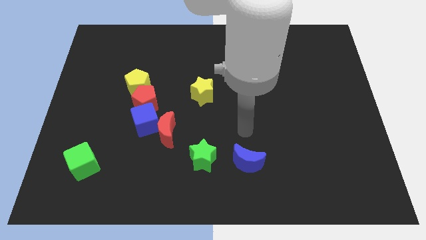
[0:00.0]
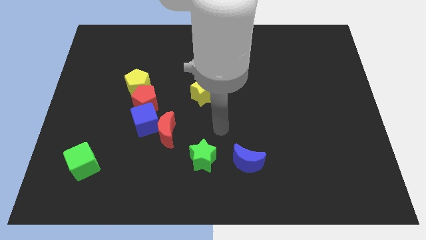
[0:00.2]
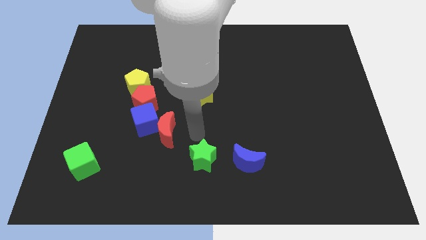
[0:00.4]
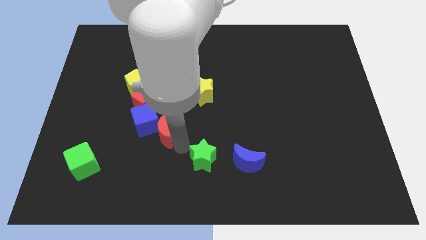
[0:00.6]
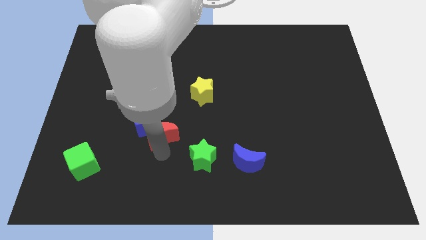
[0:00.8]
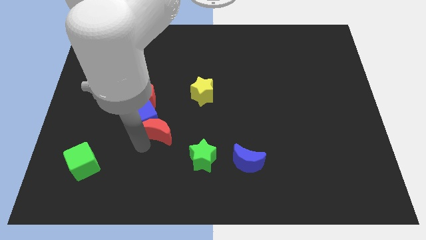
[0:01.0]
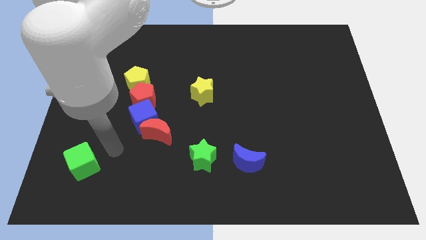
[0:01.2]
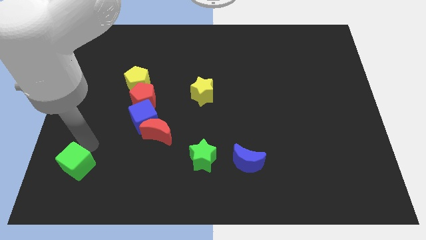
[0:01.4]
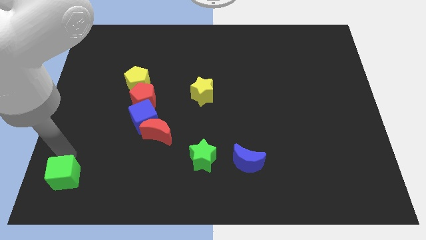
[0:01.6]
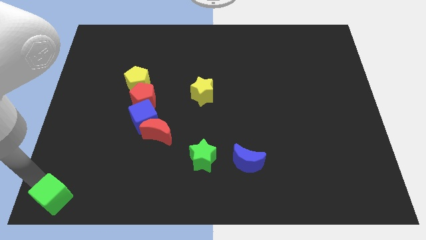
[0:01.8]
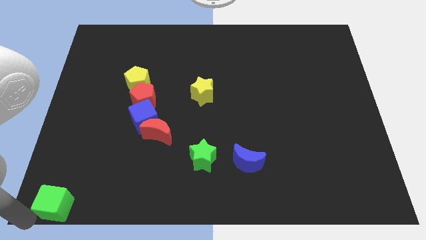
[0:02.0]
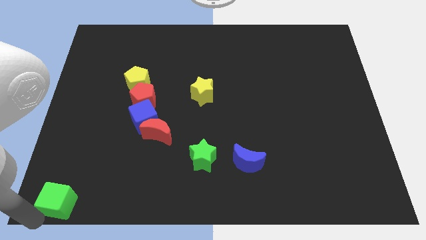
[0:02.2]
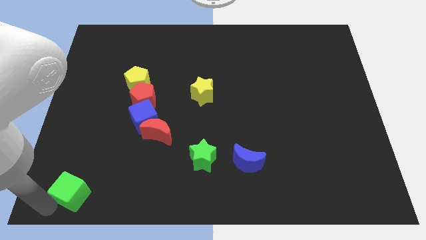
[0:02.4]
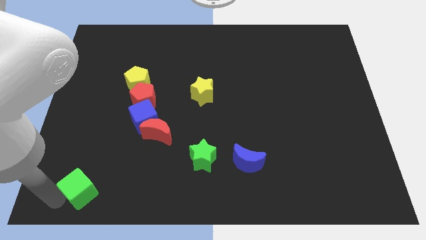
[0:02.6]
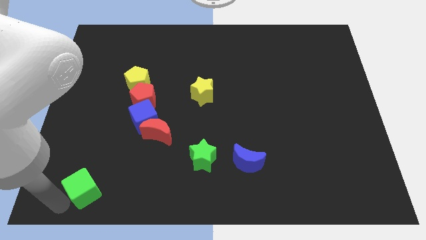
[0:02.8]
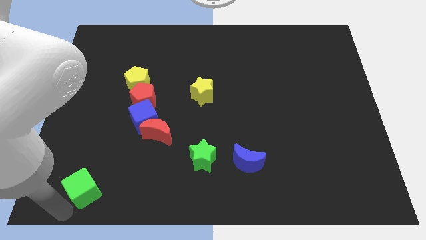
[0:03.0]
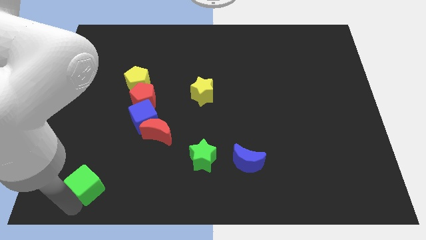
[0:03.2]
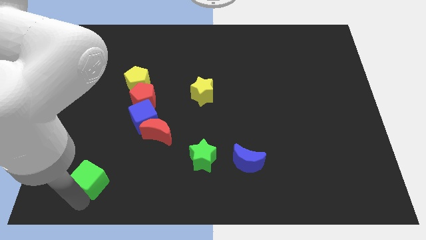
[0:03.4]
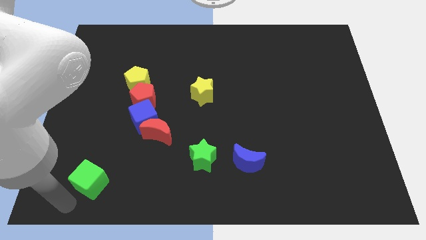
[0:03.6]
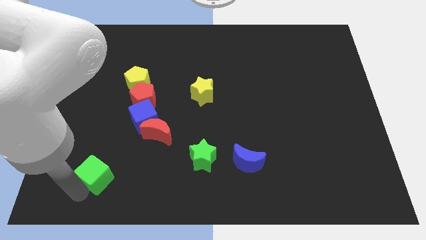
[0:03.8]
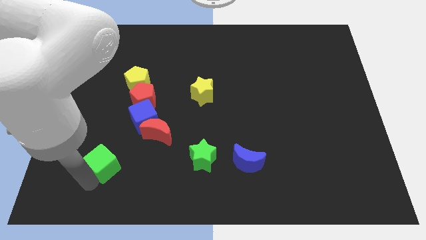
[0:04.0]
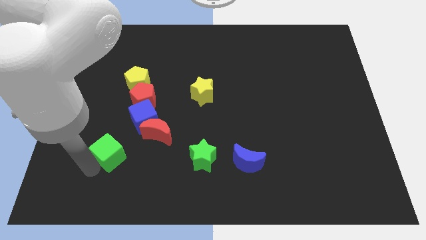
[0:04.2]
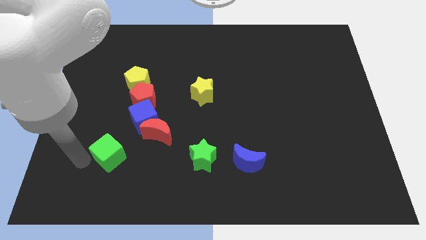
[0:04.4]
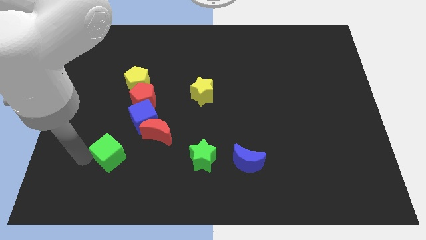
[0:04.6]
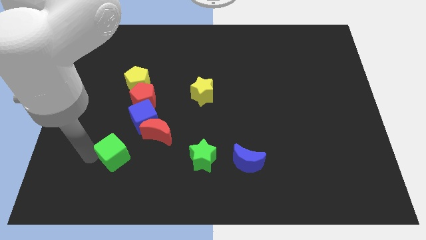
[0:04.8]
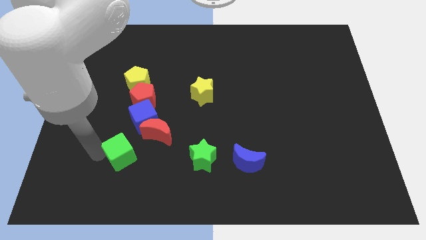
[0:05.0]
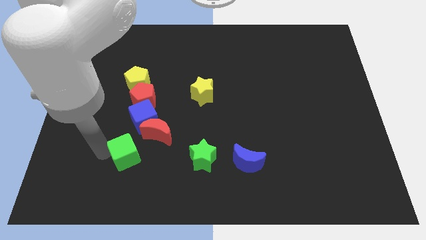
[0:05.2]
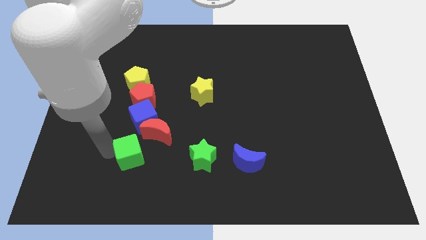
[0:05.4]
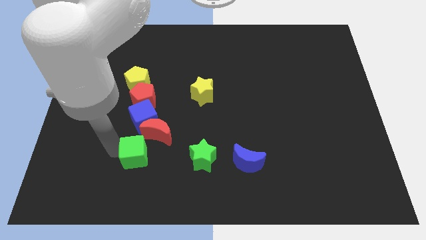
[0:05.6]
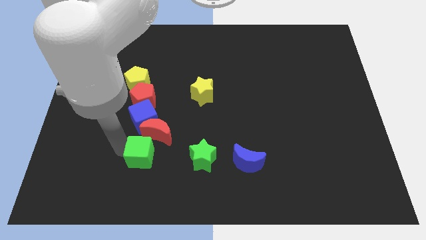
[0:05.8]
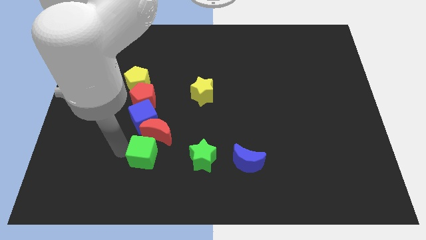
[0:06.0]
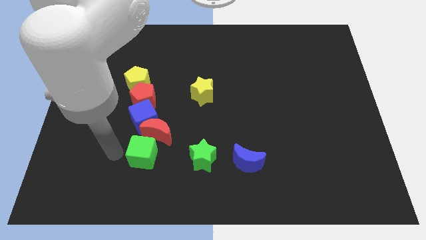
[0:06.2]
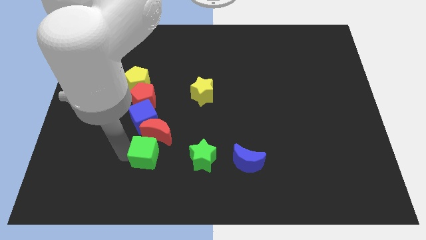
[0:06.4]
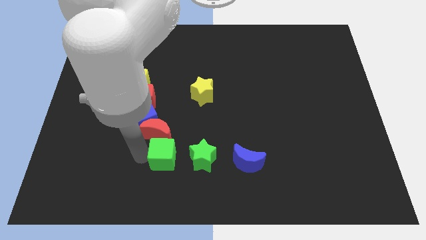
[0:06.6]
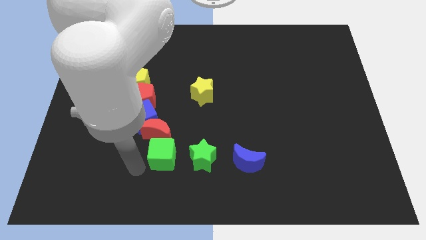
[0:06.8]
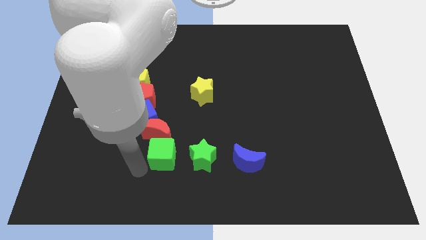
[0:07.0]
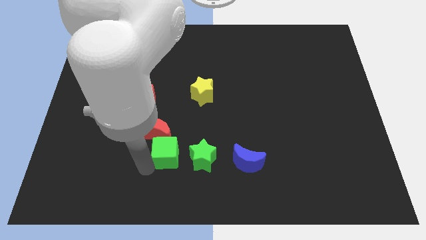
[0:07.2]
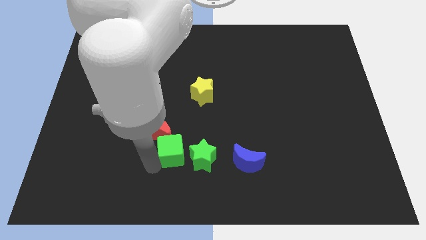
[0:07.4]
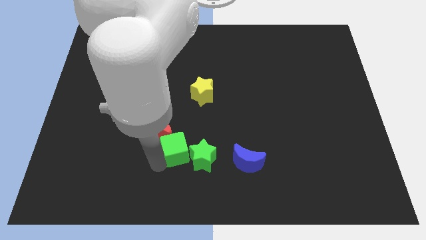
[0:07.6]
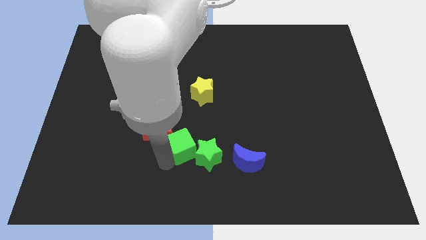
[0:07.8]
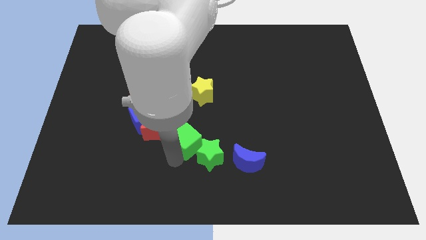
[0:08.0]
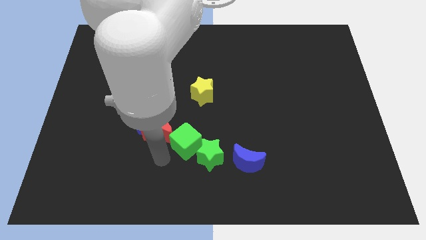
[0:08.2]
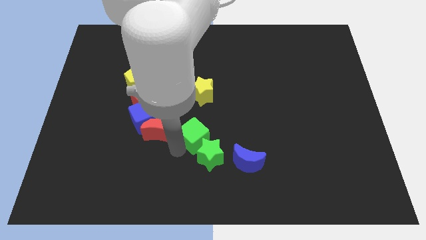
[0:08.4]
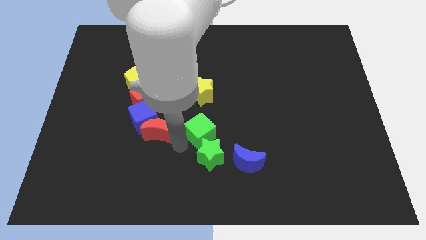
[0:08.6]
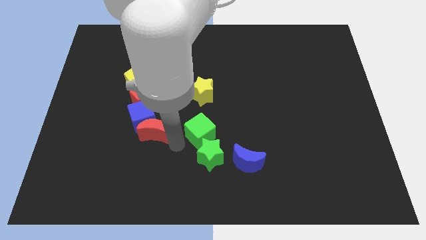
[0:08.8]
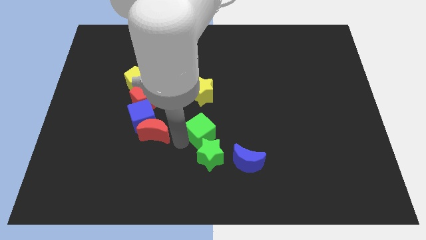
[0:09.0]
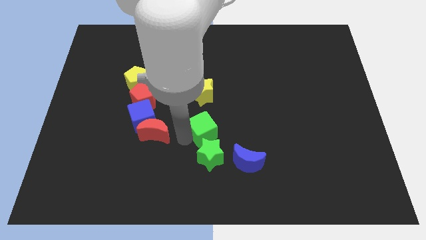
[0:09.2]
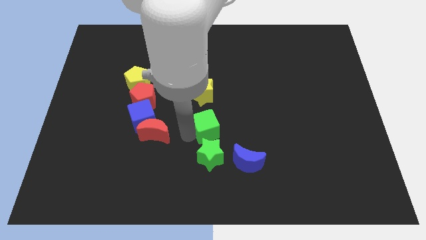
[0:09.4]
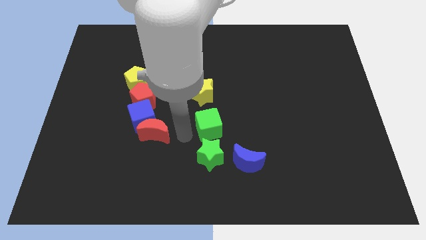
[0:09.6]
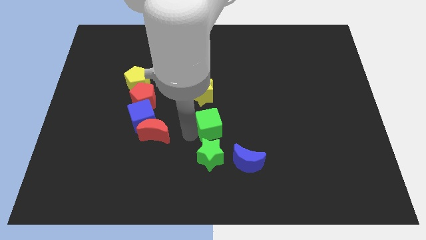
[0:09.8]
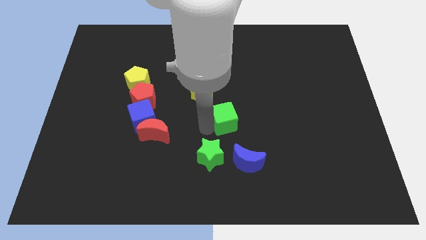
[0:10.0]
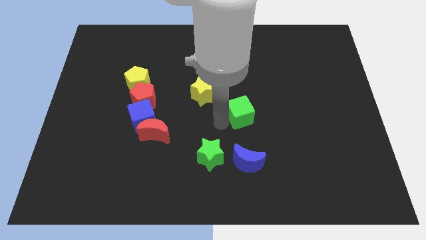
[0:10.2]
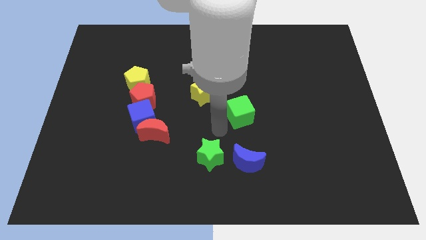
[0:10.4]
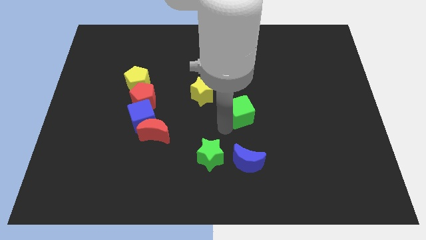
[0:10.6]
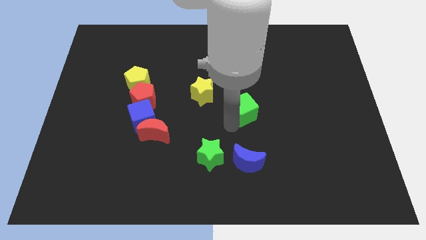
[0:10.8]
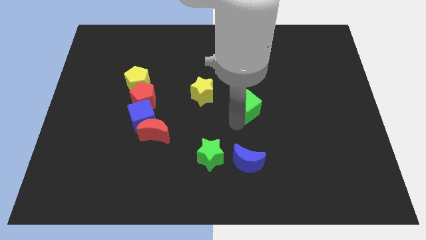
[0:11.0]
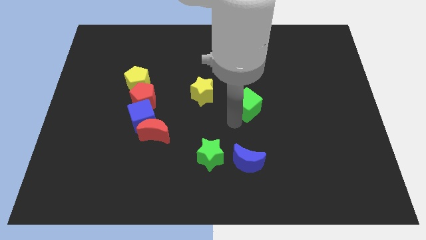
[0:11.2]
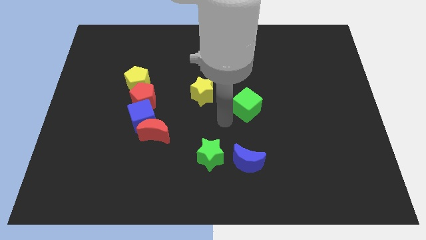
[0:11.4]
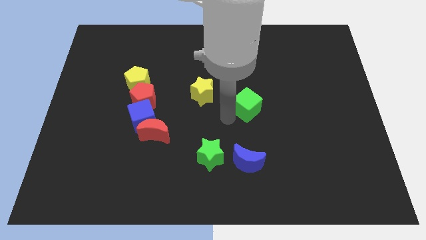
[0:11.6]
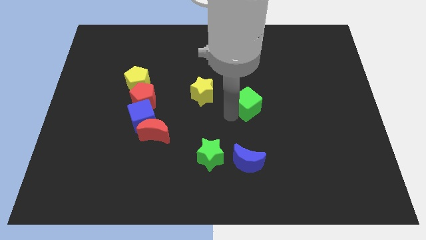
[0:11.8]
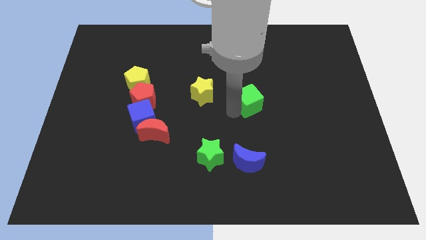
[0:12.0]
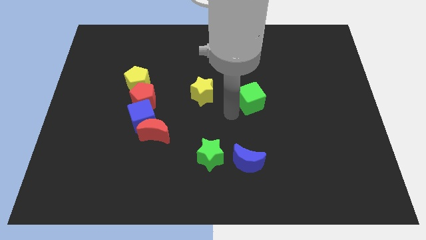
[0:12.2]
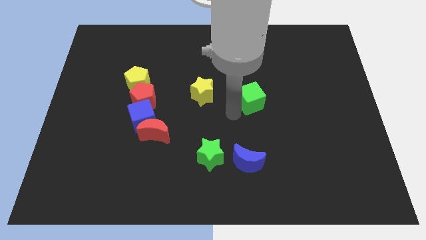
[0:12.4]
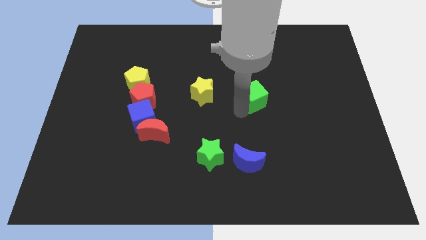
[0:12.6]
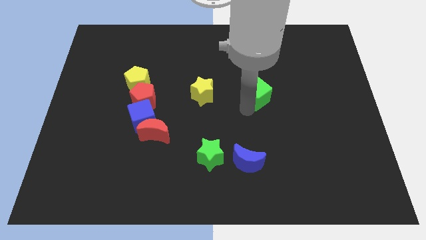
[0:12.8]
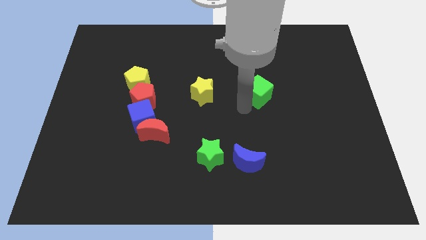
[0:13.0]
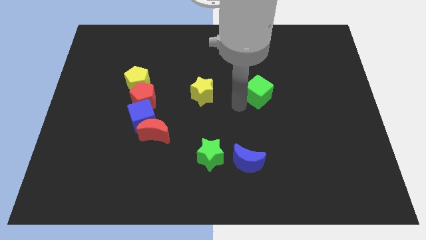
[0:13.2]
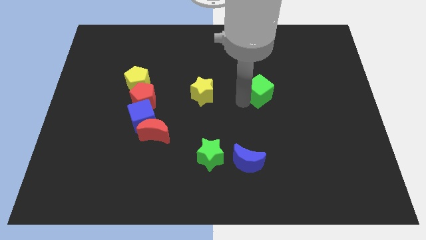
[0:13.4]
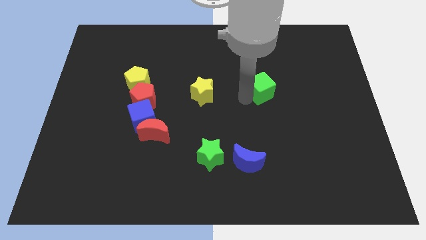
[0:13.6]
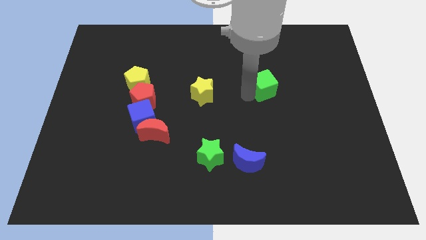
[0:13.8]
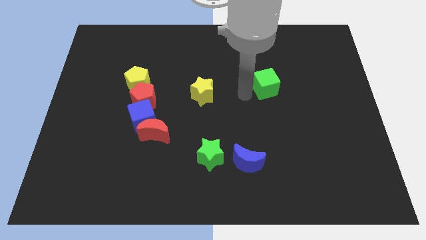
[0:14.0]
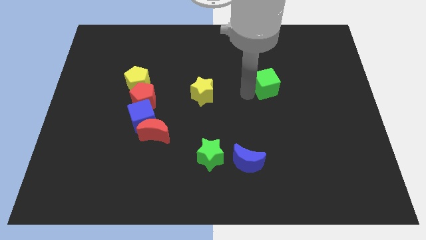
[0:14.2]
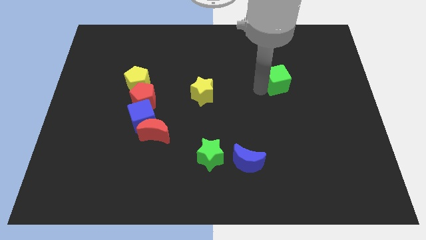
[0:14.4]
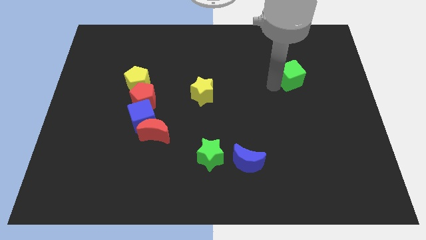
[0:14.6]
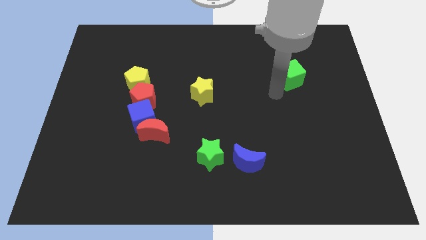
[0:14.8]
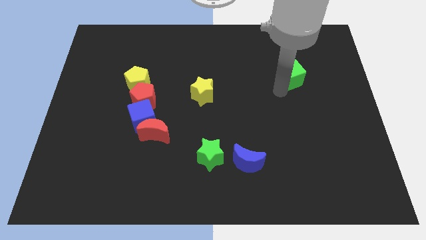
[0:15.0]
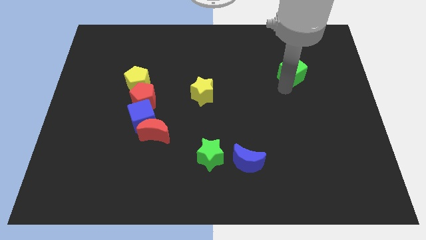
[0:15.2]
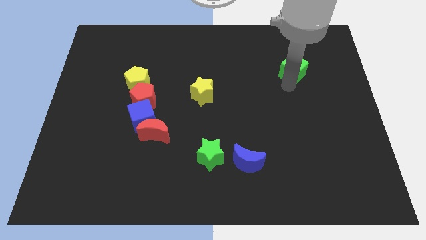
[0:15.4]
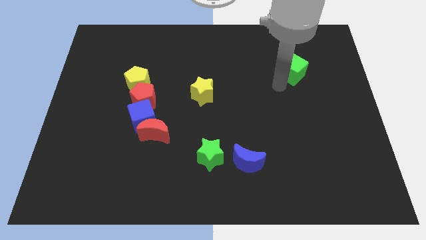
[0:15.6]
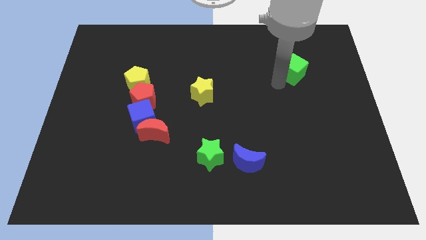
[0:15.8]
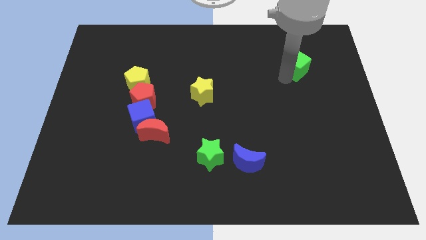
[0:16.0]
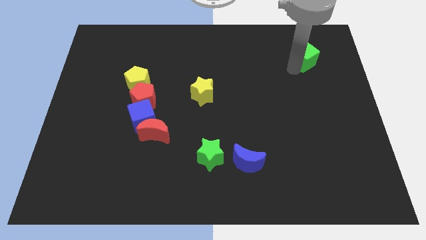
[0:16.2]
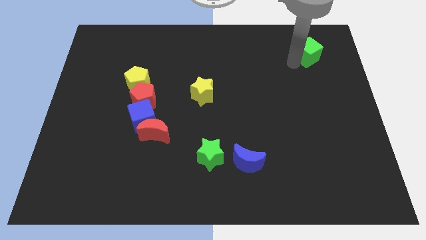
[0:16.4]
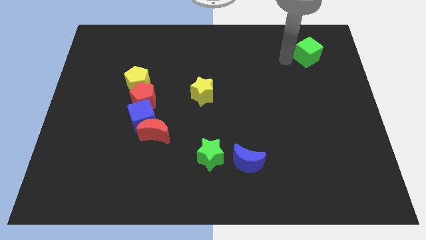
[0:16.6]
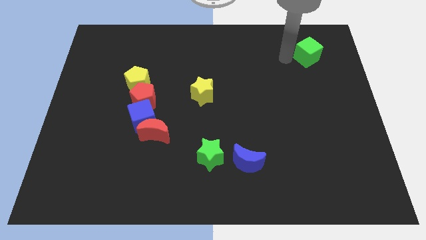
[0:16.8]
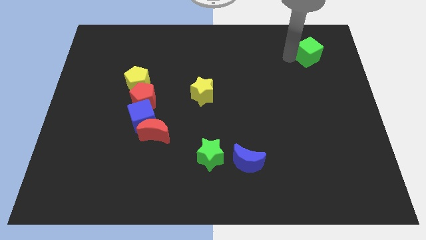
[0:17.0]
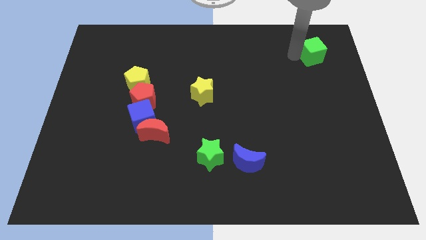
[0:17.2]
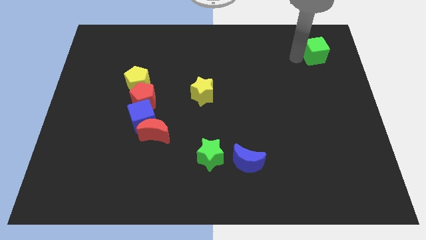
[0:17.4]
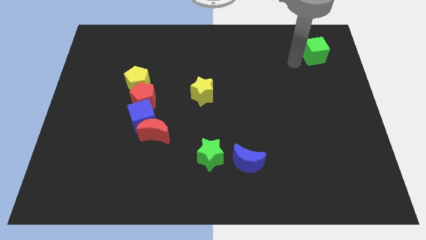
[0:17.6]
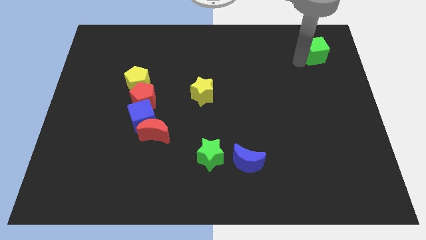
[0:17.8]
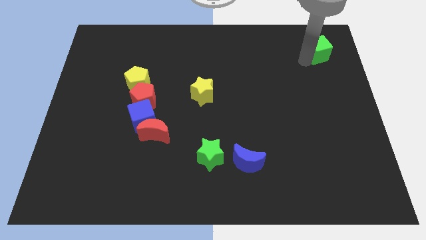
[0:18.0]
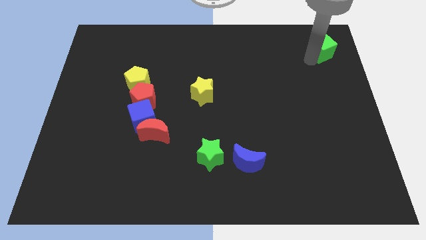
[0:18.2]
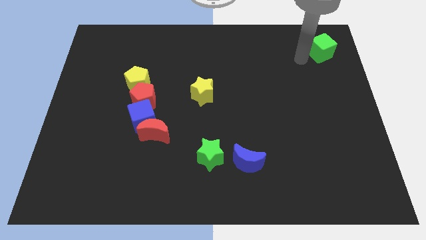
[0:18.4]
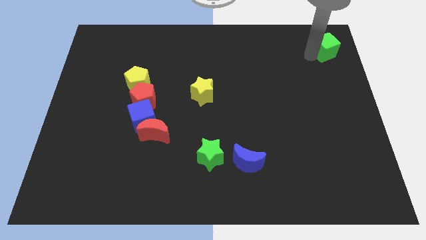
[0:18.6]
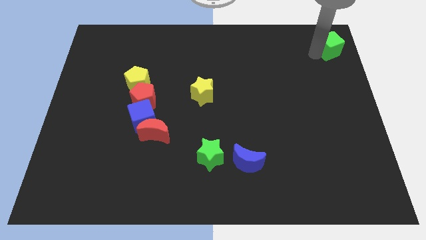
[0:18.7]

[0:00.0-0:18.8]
move the green cube to the top right of the board
